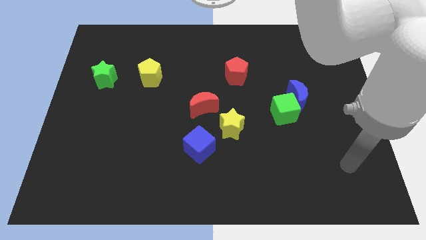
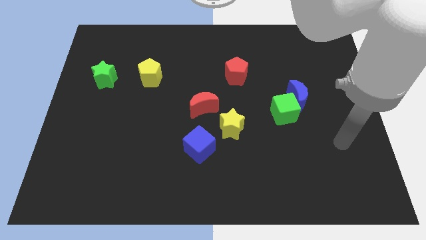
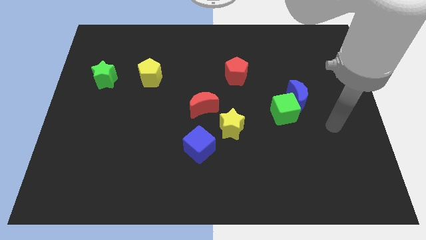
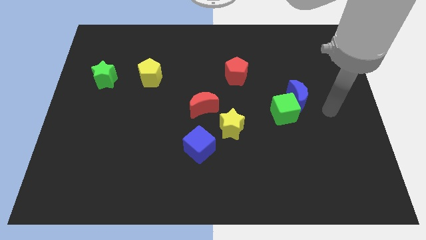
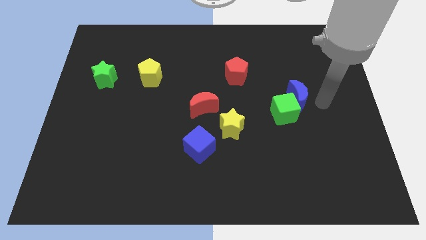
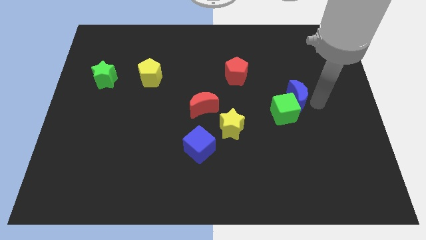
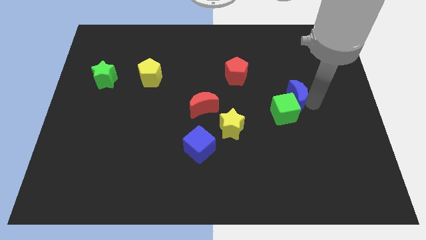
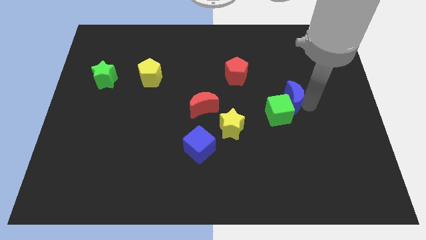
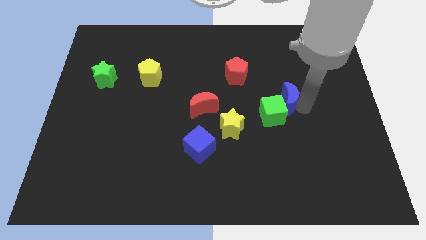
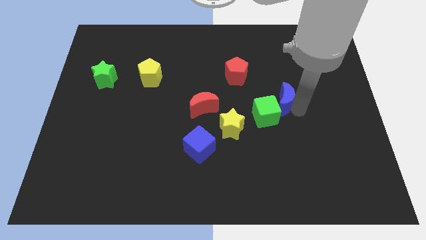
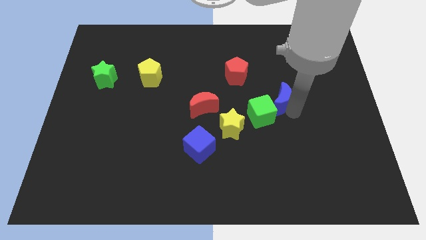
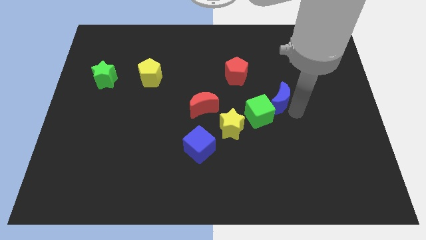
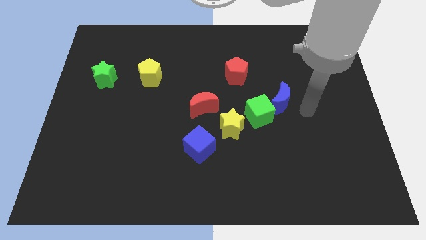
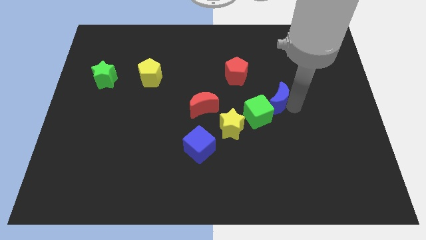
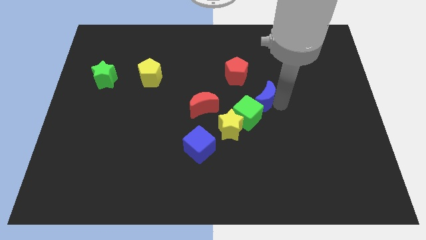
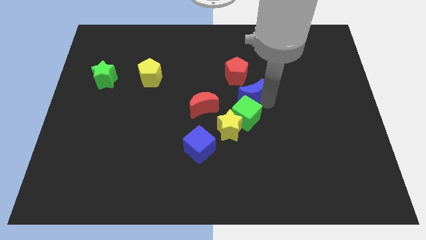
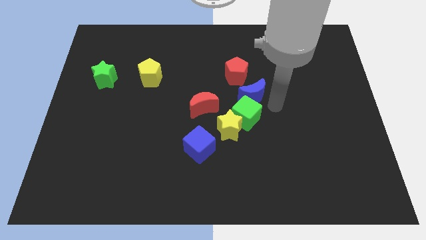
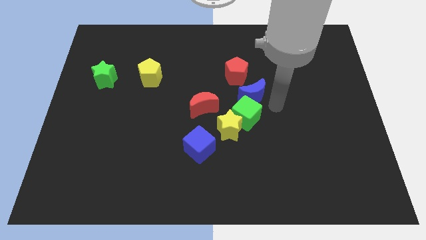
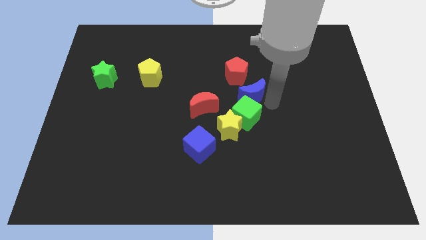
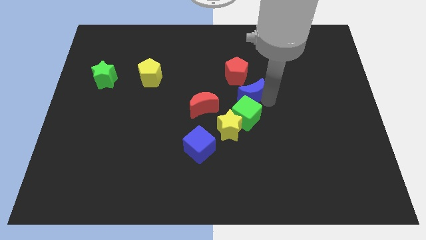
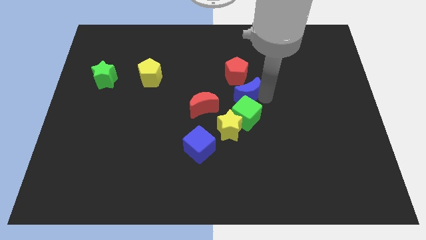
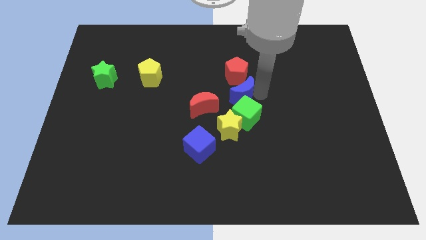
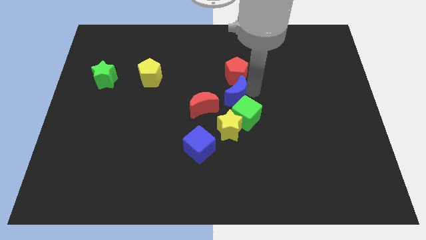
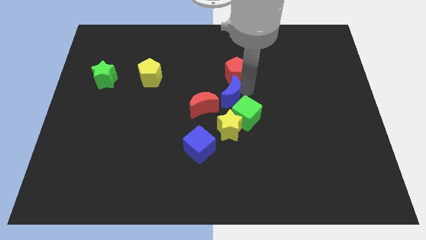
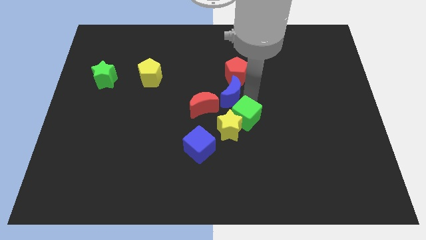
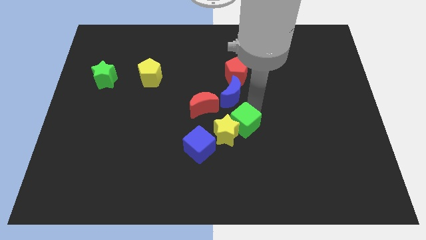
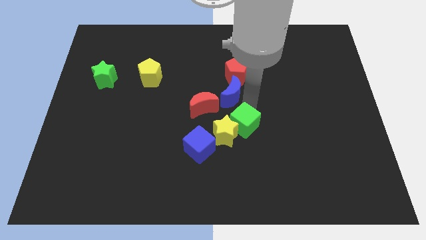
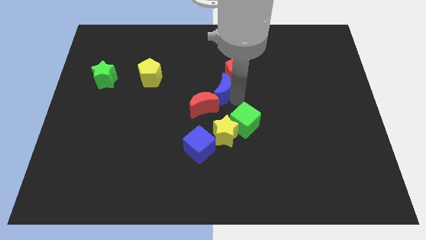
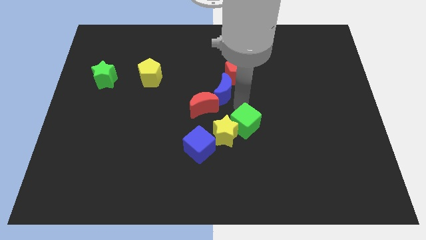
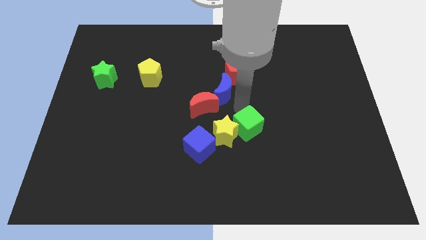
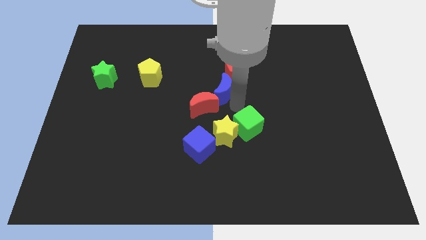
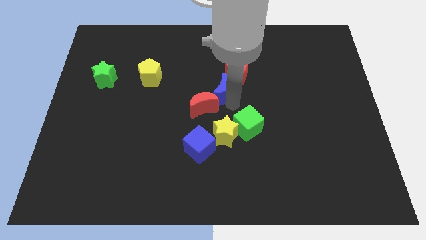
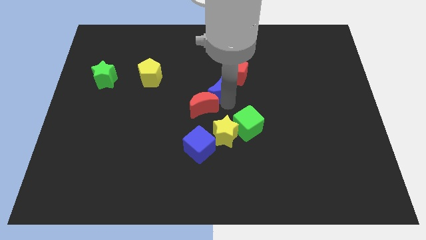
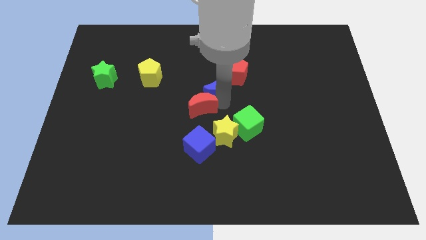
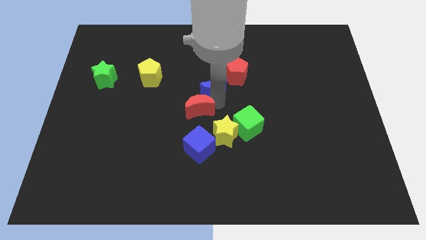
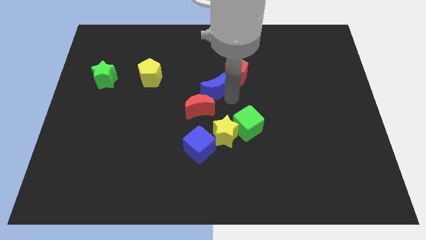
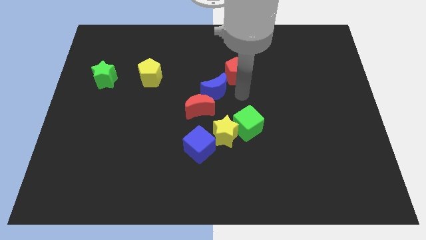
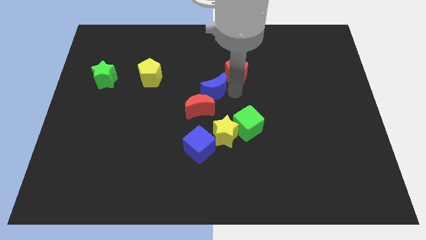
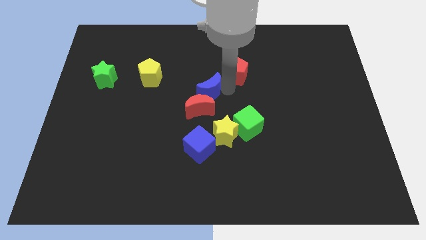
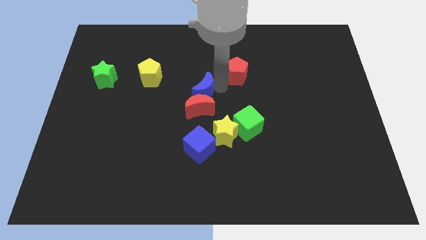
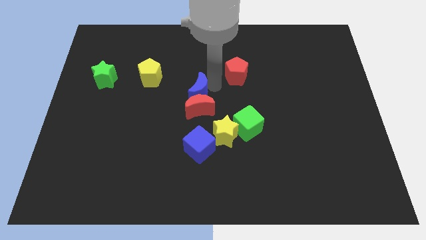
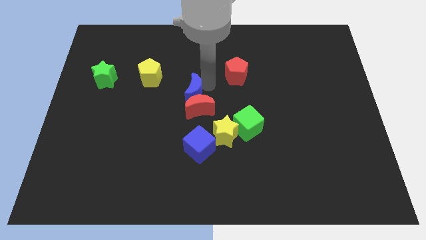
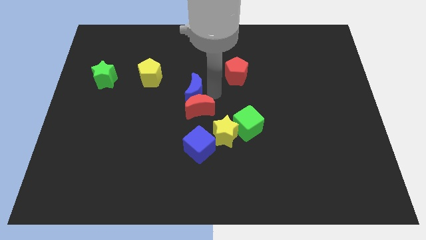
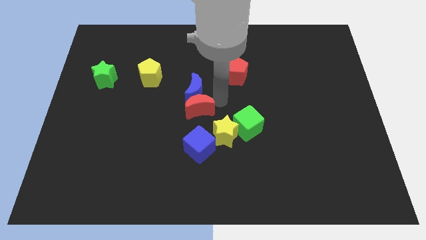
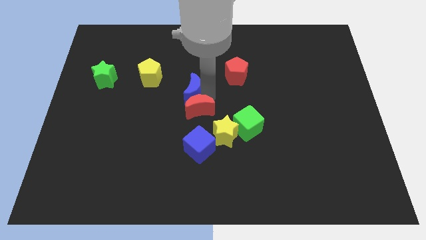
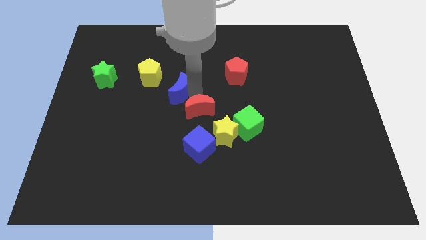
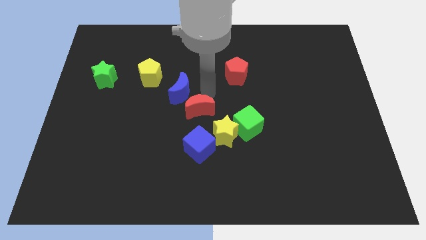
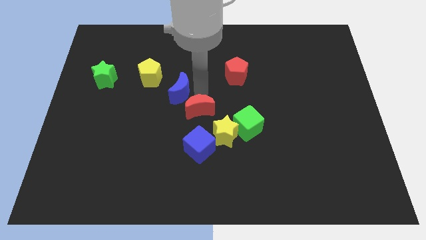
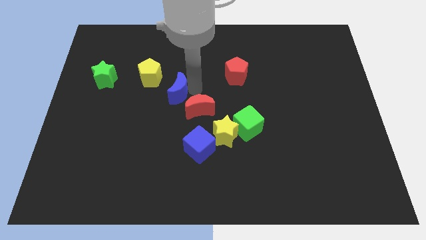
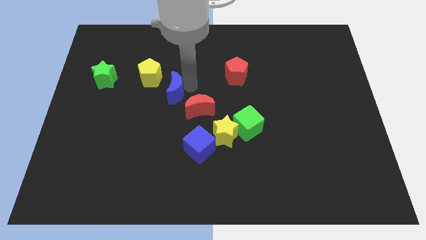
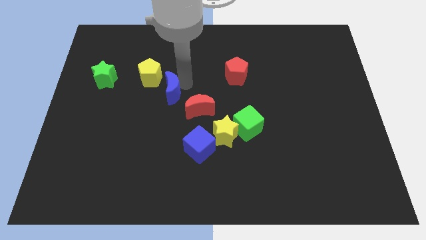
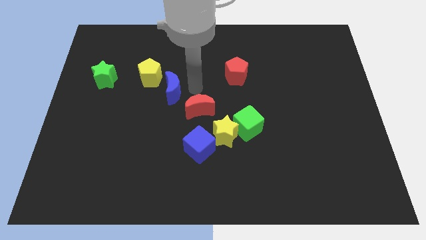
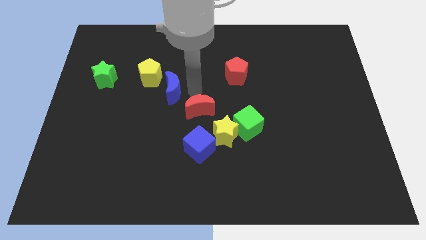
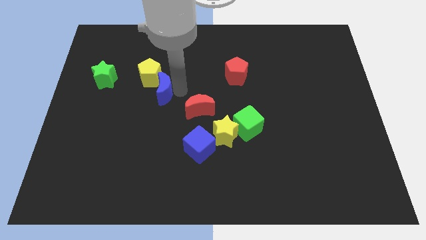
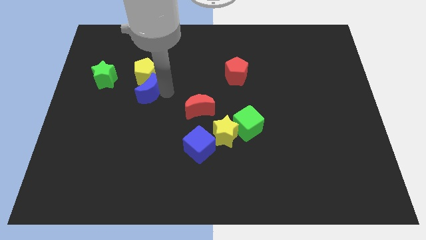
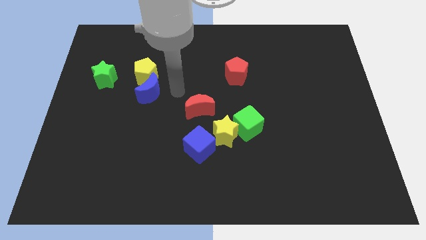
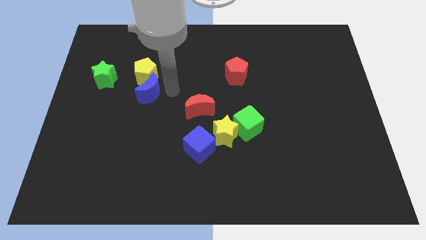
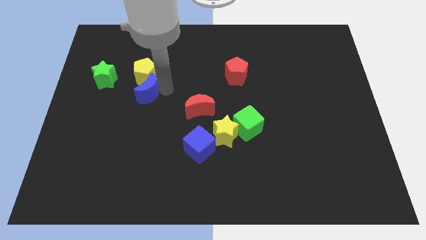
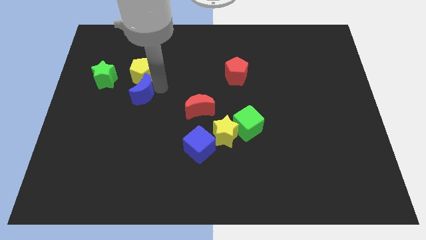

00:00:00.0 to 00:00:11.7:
slide the blue moon to the bottom right side of the green star

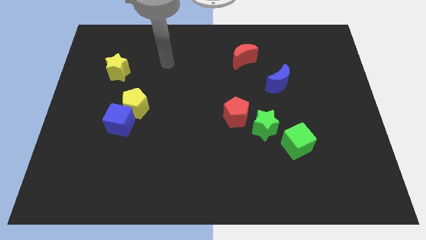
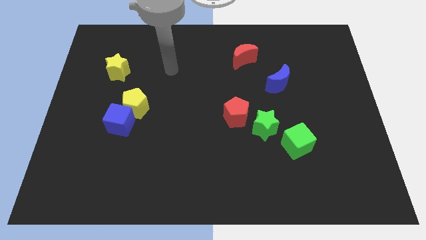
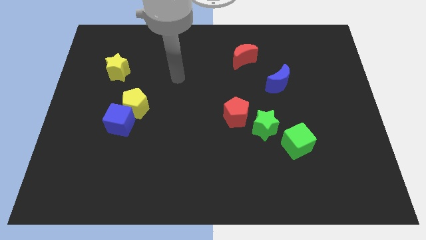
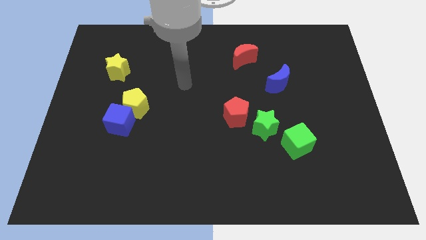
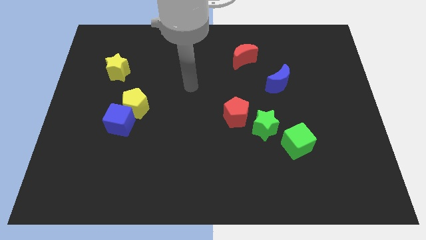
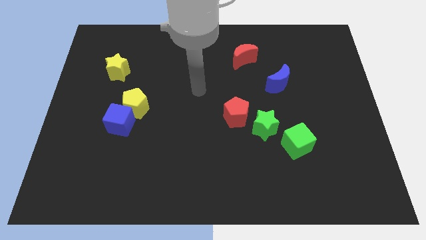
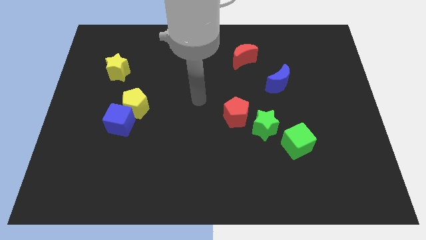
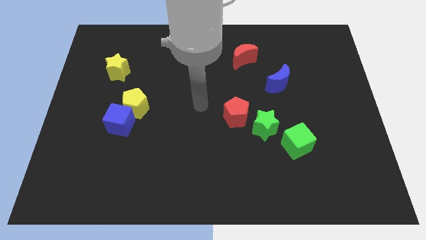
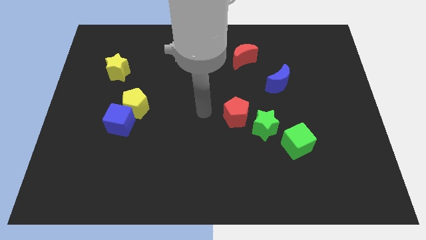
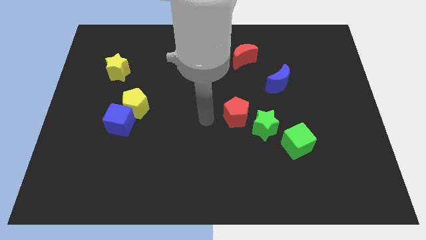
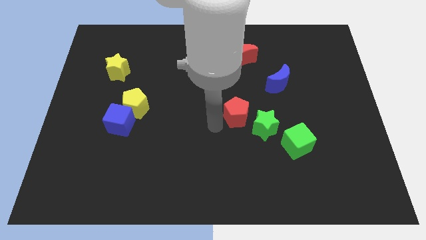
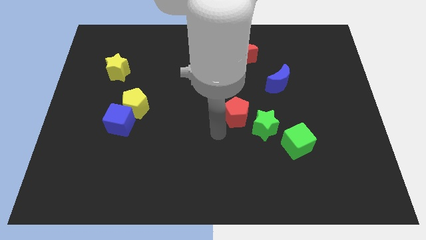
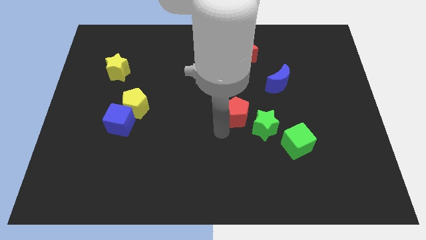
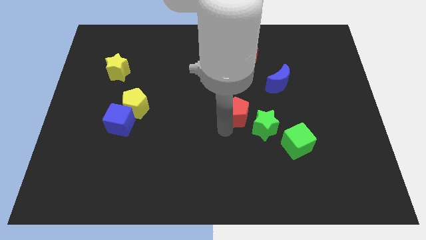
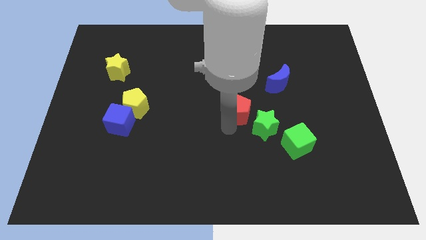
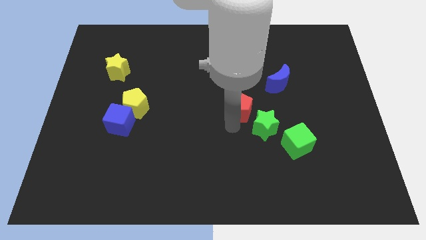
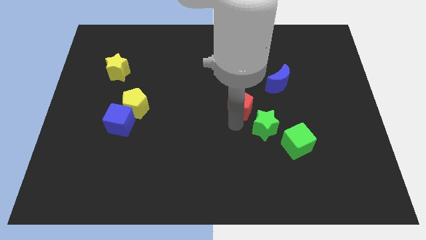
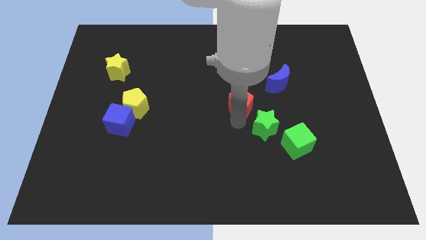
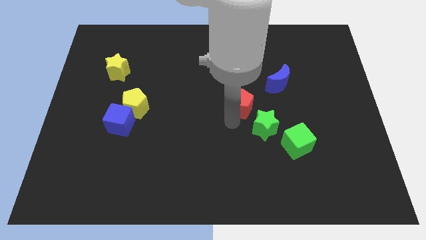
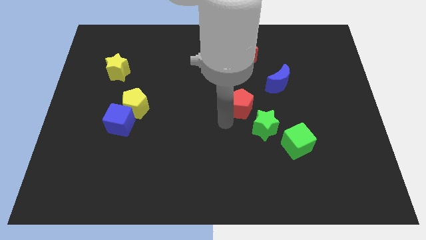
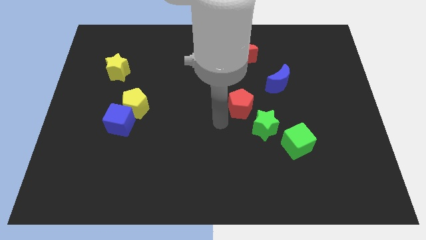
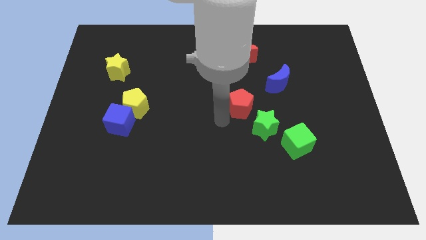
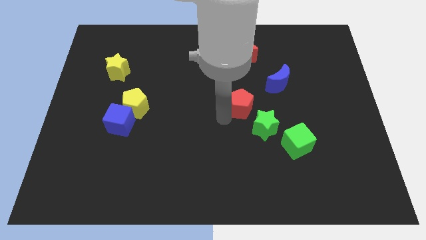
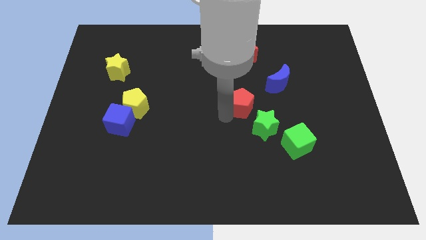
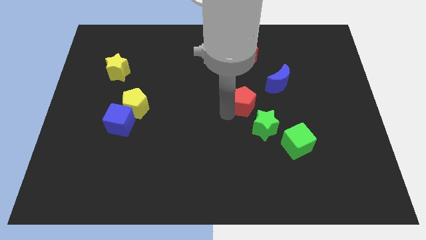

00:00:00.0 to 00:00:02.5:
push the red pentagon above the green star
